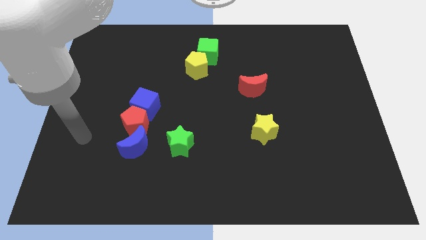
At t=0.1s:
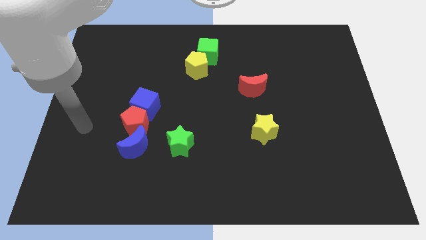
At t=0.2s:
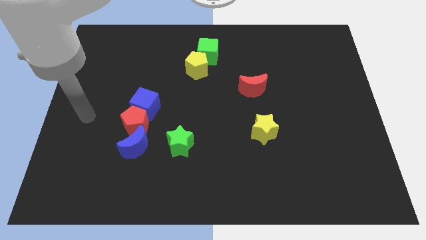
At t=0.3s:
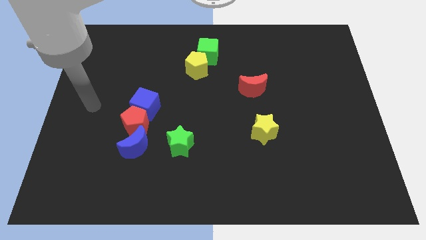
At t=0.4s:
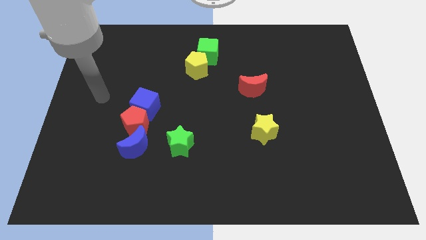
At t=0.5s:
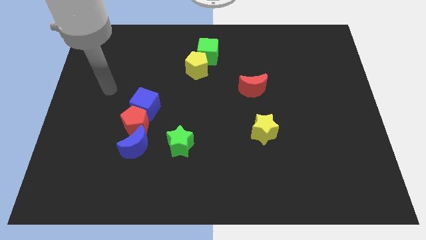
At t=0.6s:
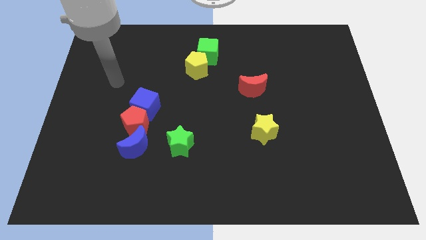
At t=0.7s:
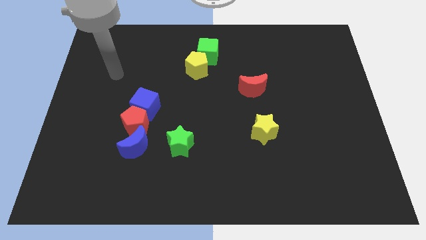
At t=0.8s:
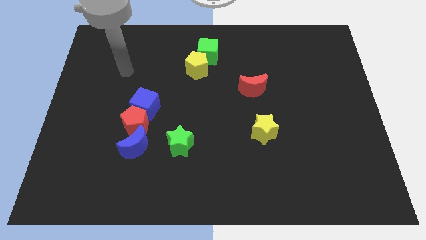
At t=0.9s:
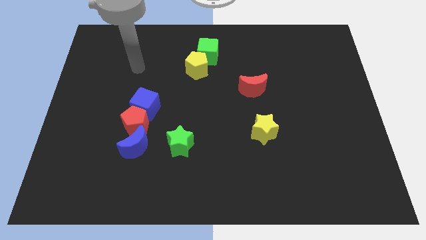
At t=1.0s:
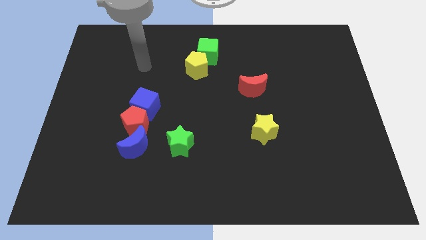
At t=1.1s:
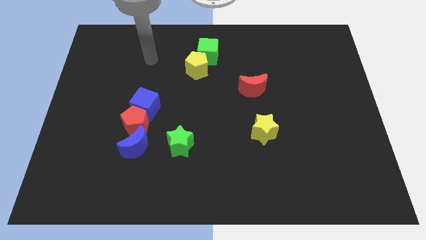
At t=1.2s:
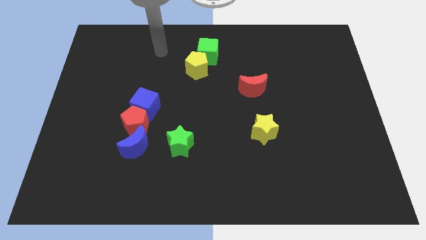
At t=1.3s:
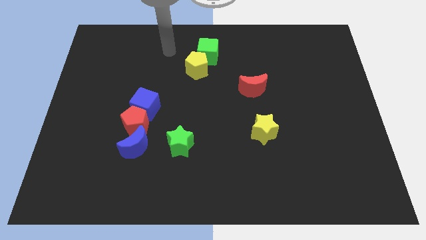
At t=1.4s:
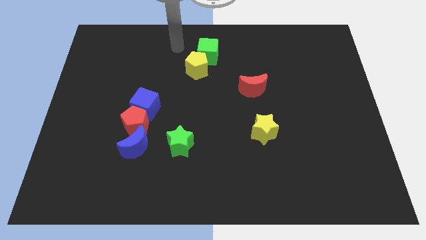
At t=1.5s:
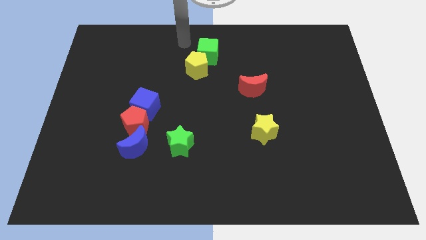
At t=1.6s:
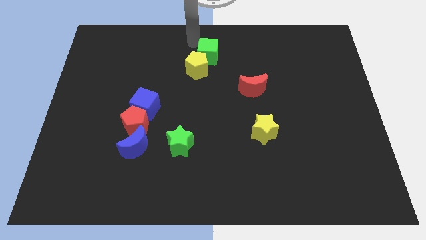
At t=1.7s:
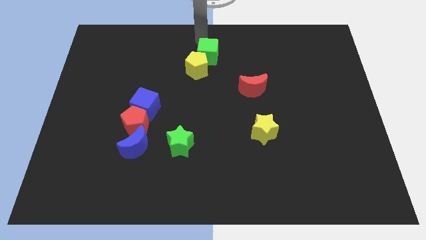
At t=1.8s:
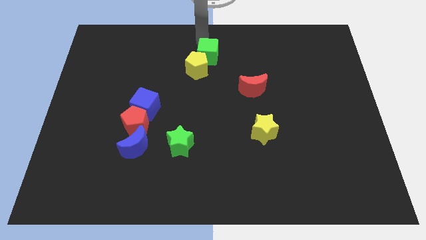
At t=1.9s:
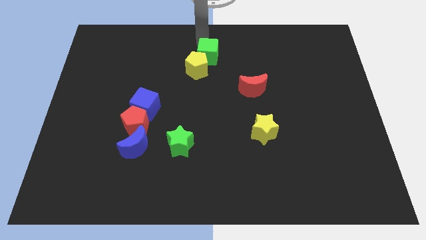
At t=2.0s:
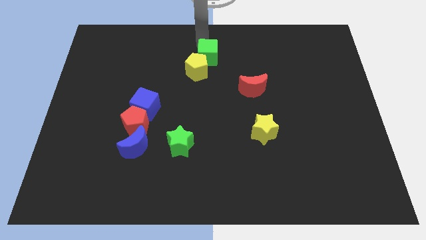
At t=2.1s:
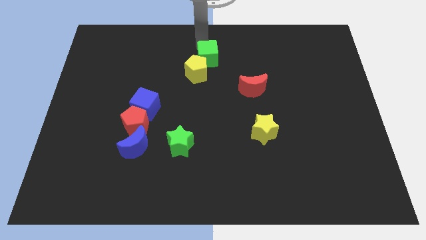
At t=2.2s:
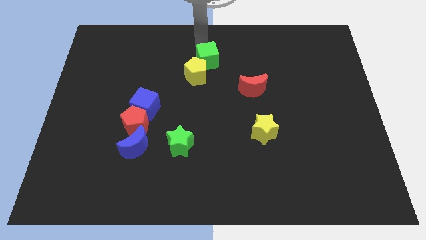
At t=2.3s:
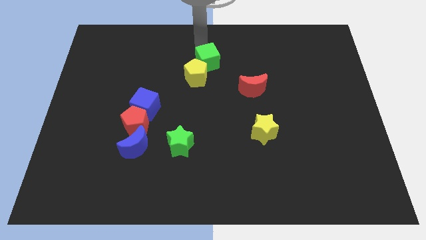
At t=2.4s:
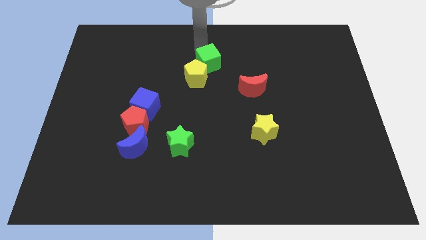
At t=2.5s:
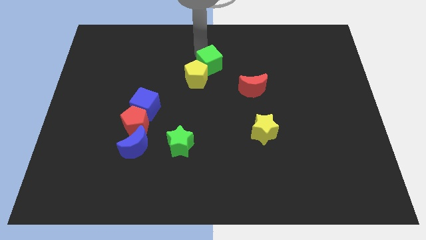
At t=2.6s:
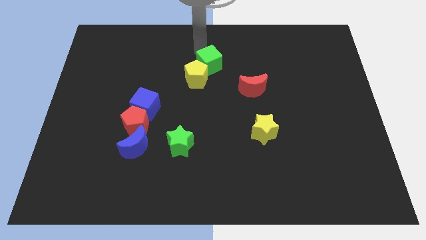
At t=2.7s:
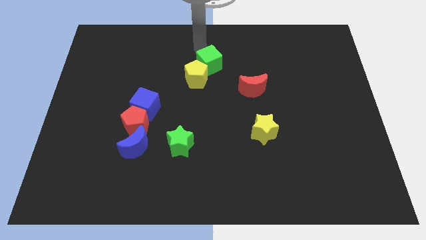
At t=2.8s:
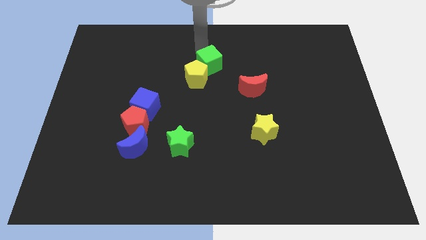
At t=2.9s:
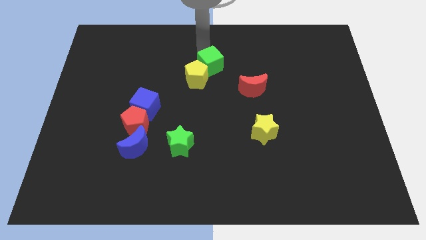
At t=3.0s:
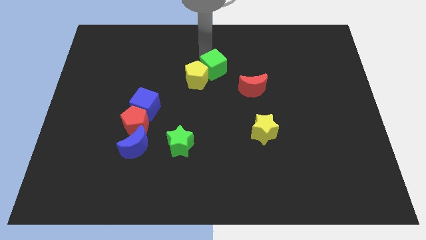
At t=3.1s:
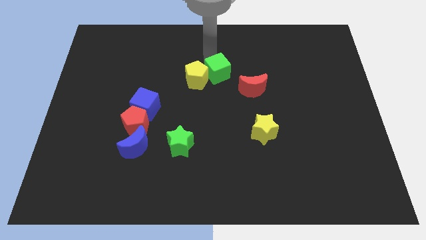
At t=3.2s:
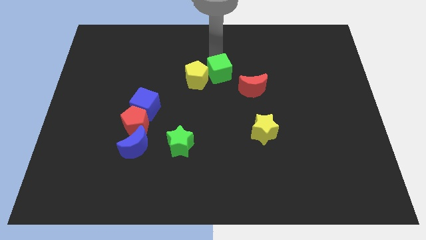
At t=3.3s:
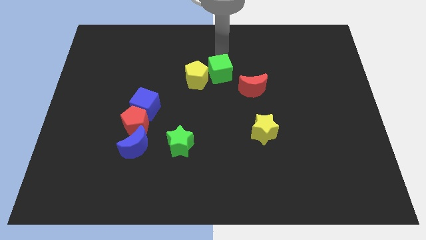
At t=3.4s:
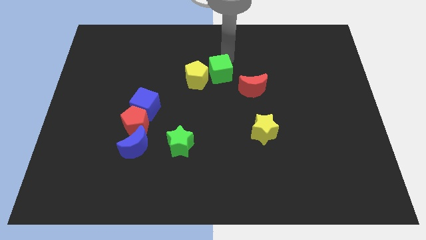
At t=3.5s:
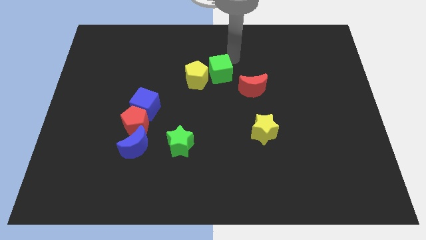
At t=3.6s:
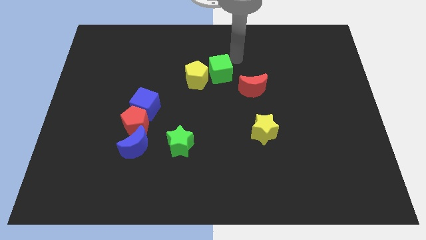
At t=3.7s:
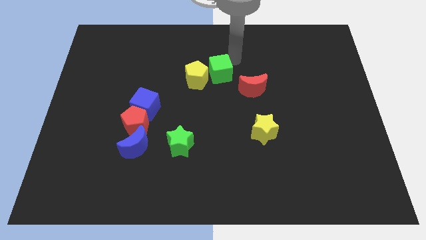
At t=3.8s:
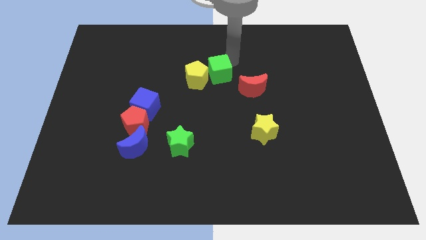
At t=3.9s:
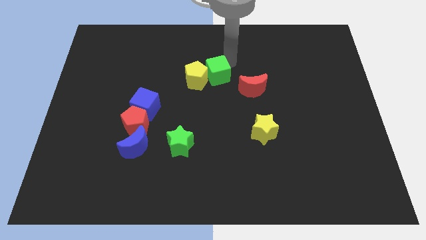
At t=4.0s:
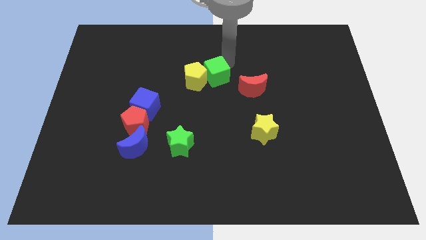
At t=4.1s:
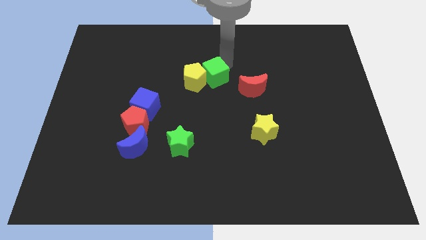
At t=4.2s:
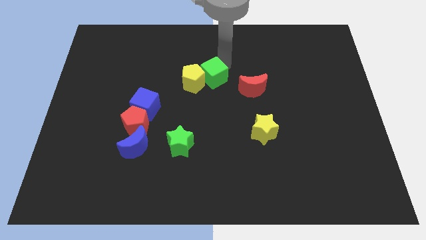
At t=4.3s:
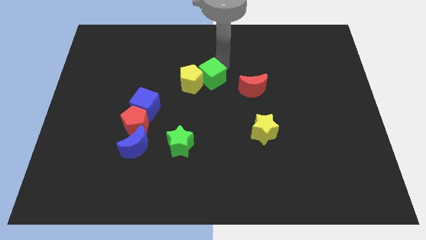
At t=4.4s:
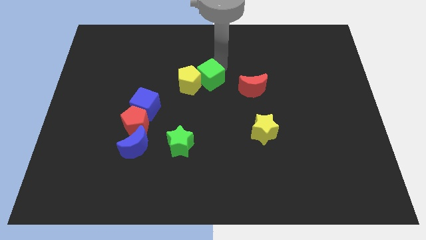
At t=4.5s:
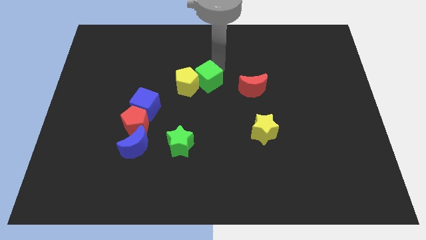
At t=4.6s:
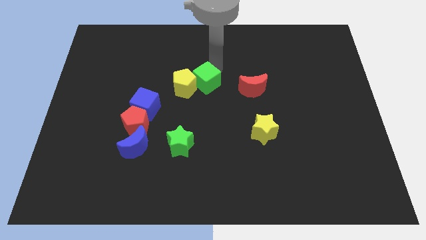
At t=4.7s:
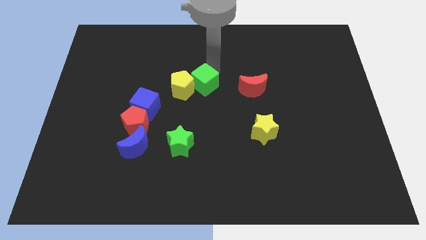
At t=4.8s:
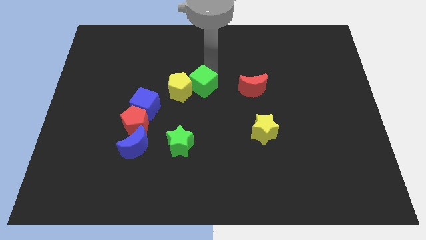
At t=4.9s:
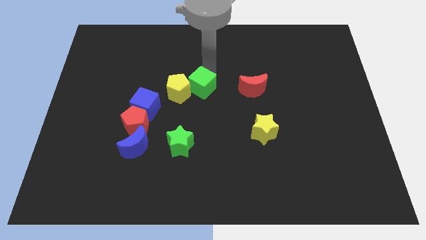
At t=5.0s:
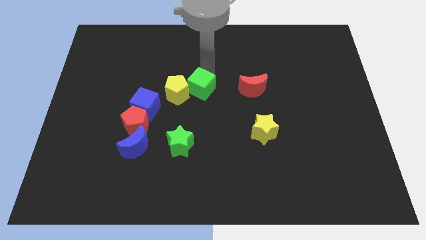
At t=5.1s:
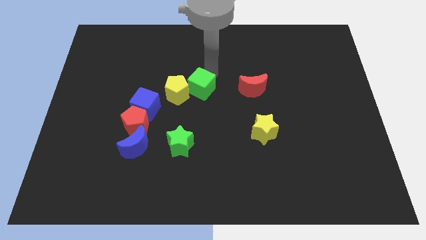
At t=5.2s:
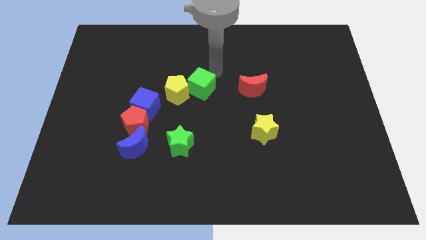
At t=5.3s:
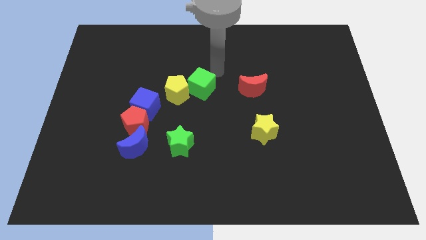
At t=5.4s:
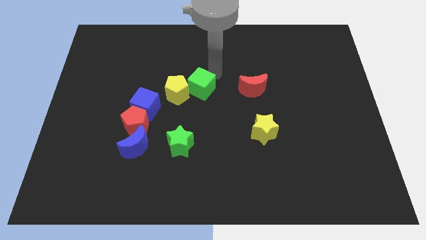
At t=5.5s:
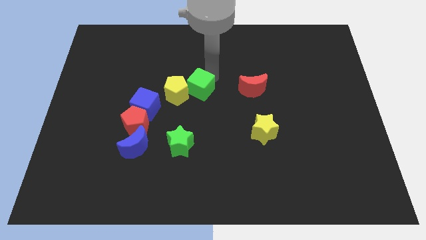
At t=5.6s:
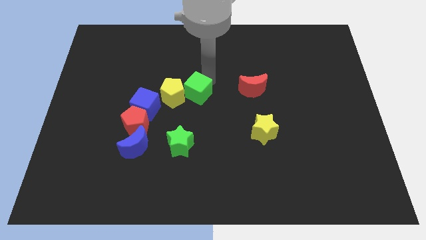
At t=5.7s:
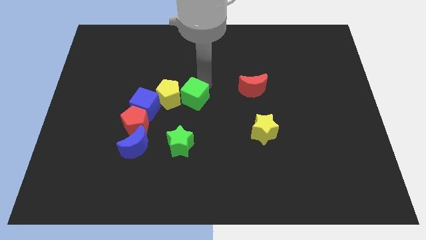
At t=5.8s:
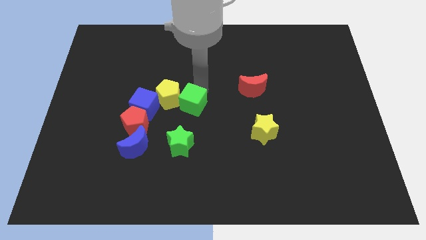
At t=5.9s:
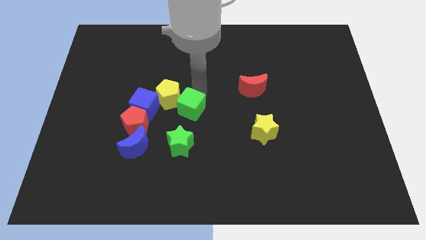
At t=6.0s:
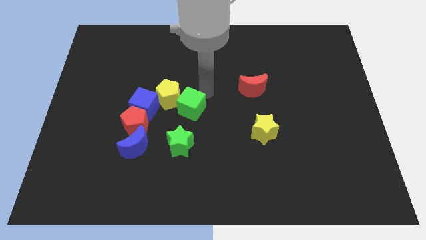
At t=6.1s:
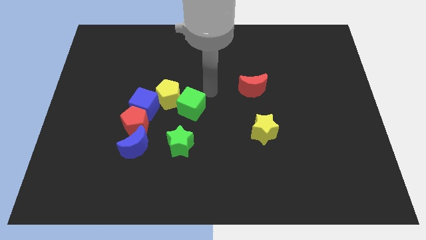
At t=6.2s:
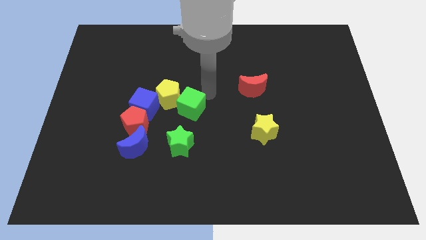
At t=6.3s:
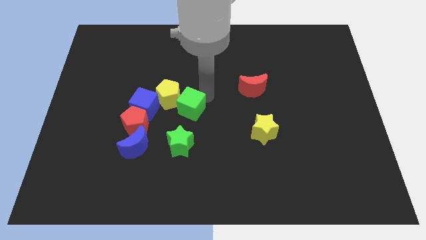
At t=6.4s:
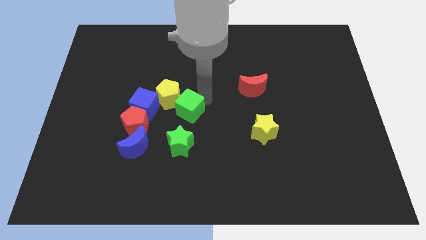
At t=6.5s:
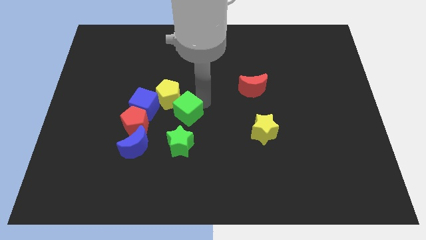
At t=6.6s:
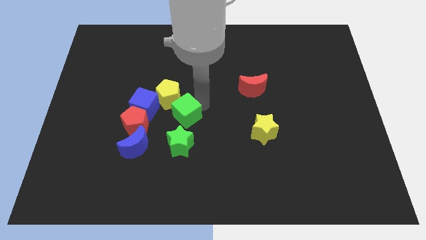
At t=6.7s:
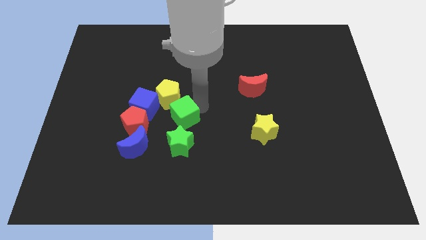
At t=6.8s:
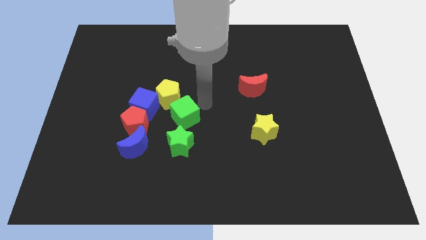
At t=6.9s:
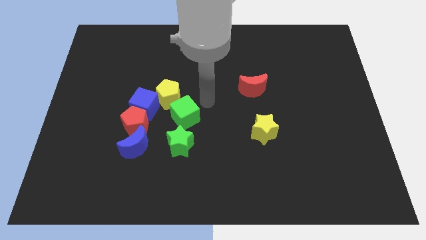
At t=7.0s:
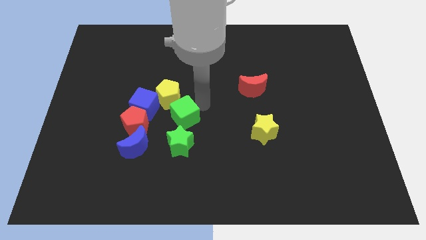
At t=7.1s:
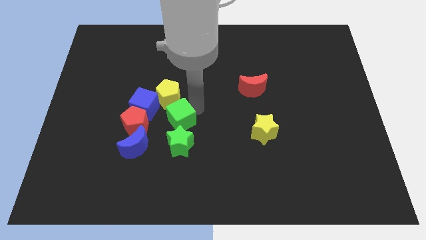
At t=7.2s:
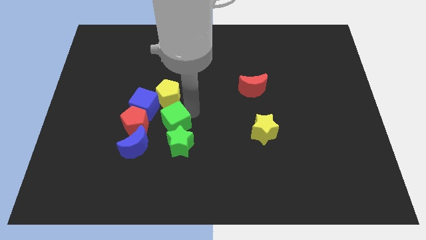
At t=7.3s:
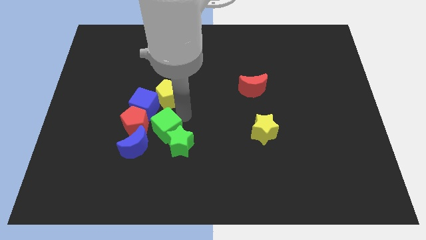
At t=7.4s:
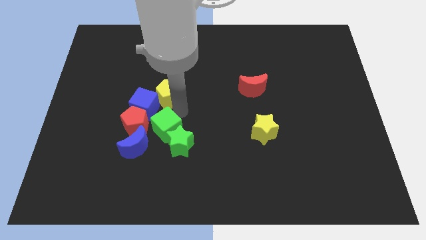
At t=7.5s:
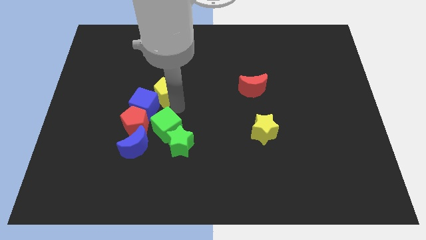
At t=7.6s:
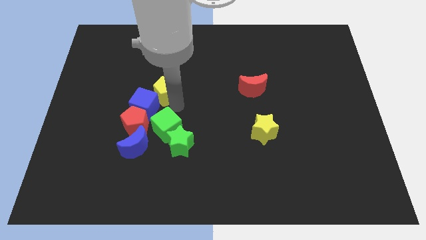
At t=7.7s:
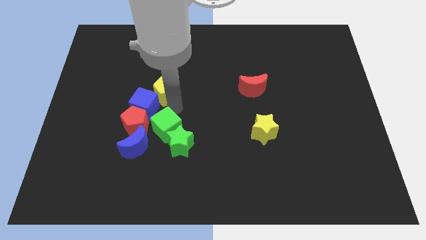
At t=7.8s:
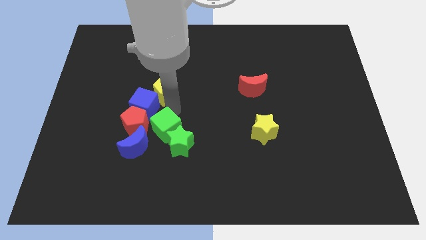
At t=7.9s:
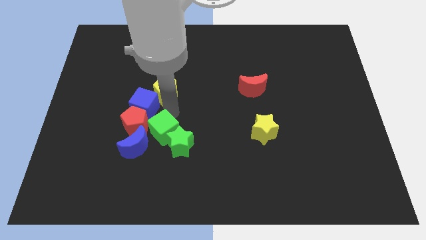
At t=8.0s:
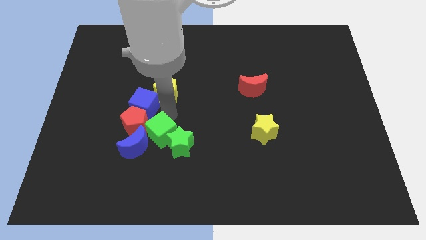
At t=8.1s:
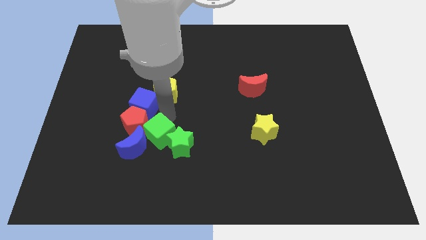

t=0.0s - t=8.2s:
move the green cube next to the blue moon
